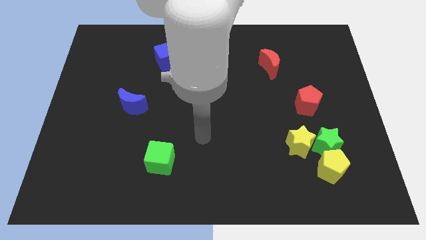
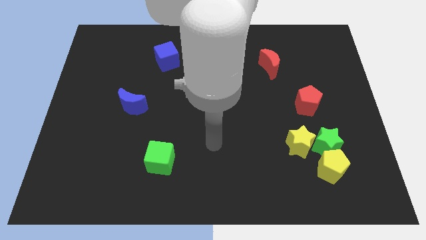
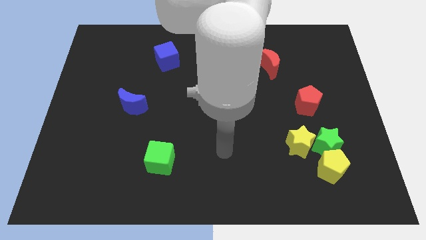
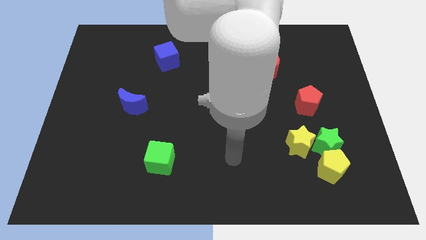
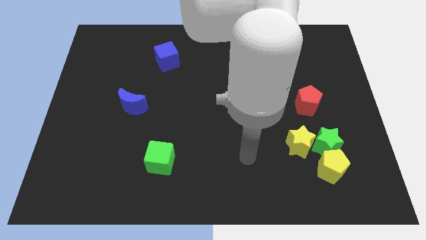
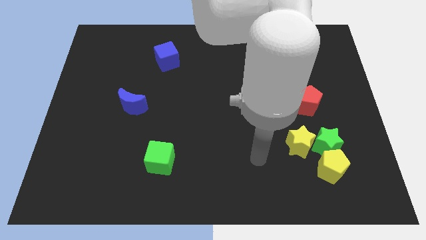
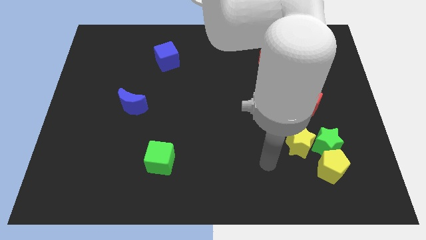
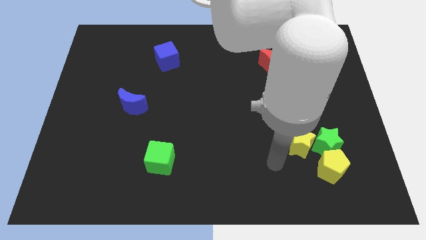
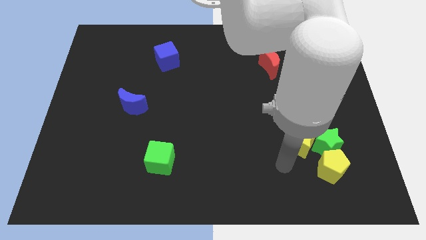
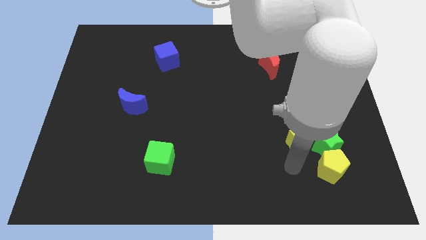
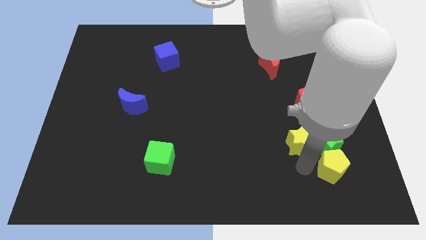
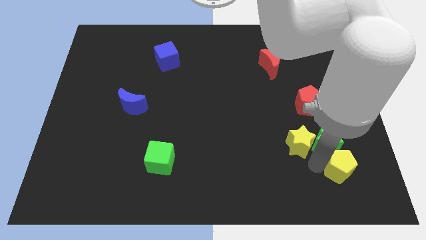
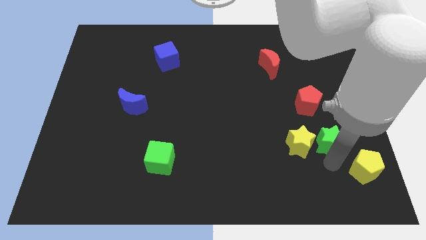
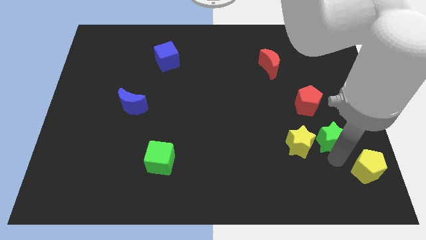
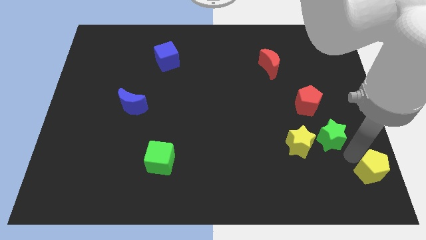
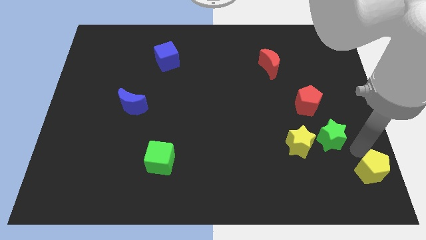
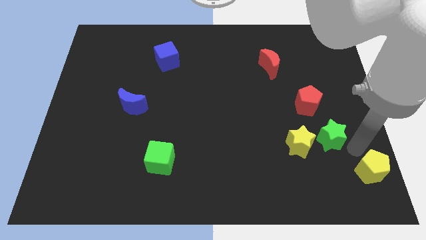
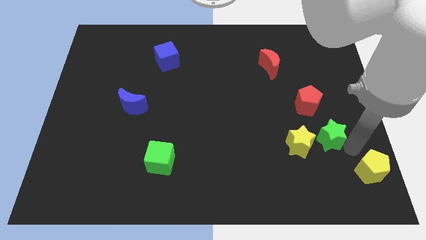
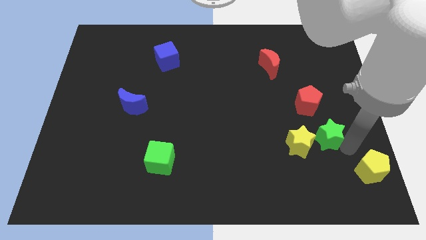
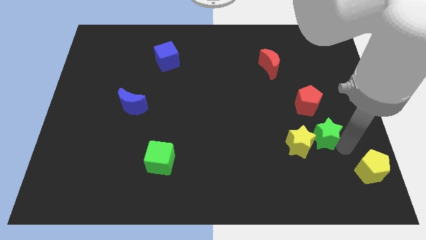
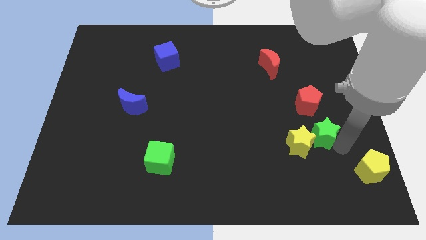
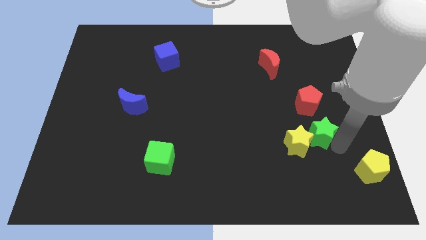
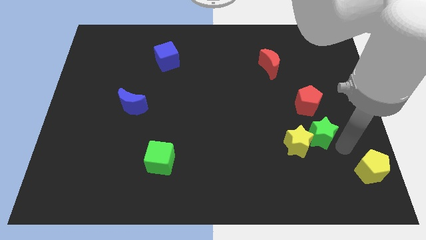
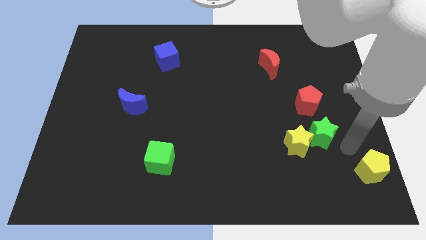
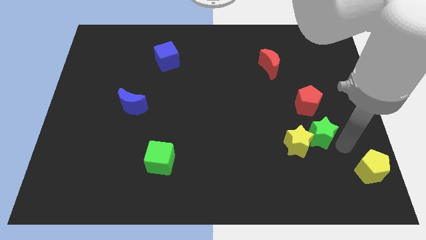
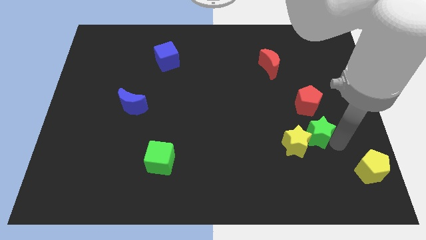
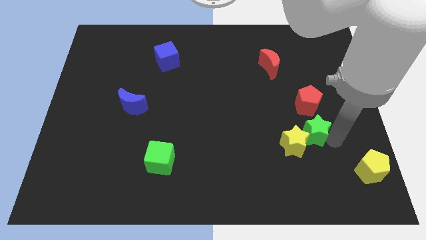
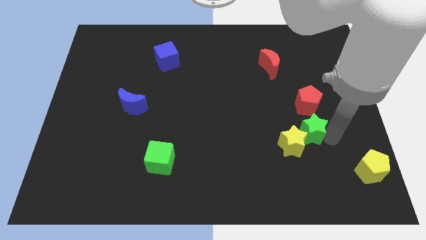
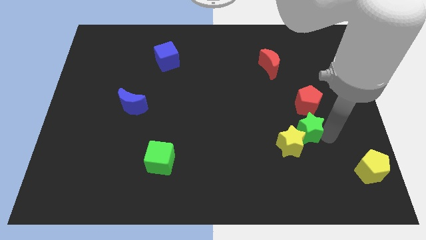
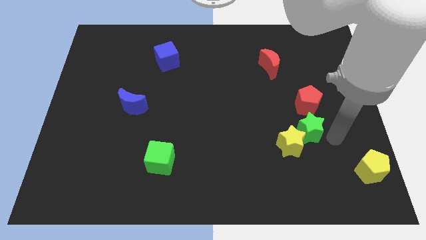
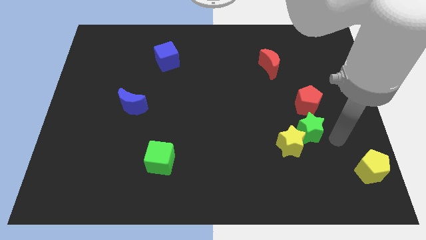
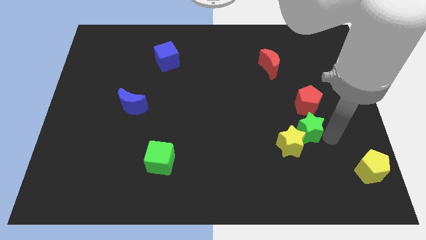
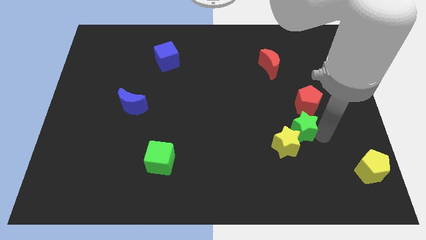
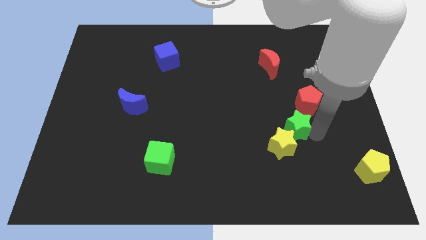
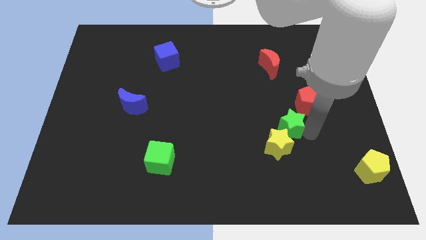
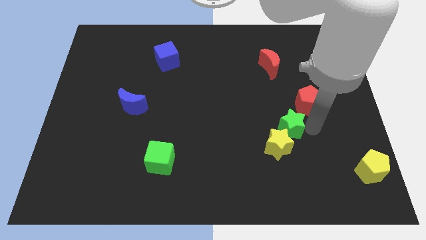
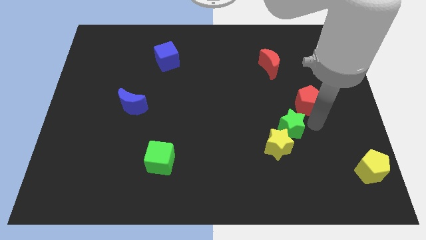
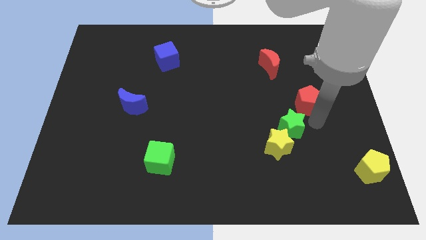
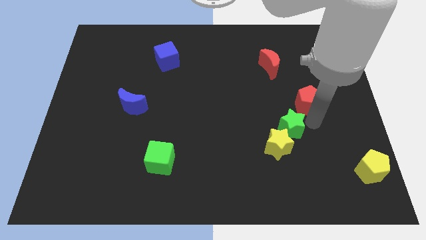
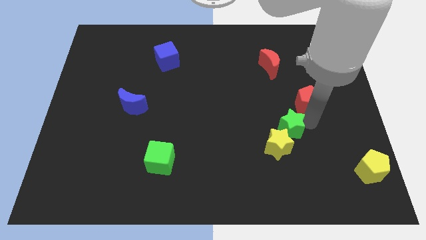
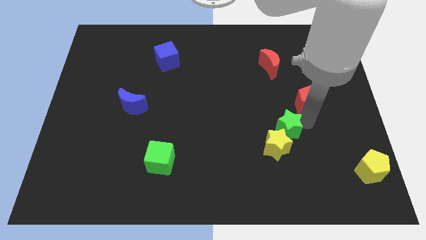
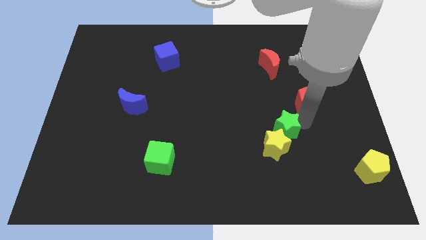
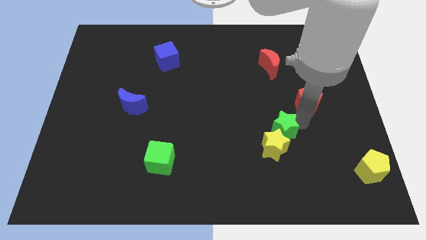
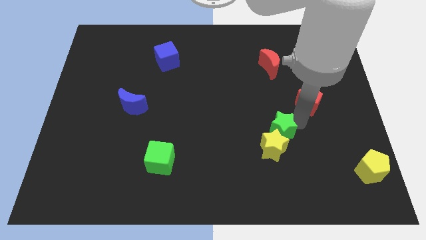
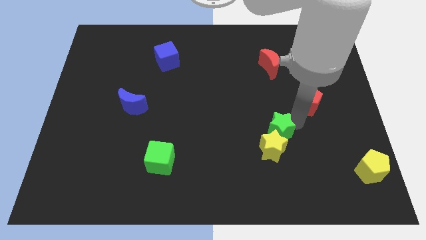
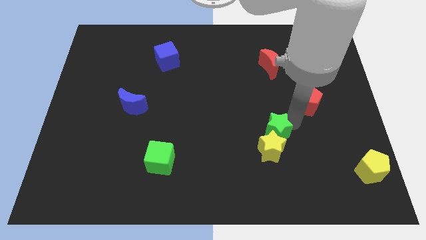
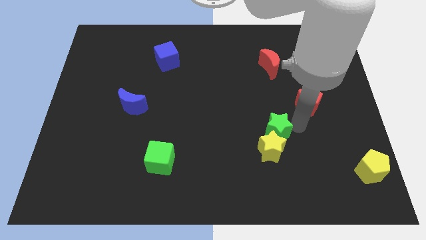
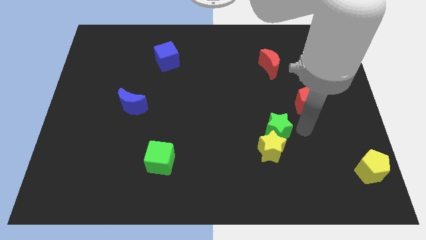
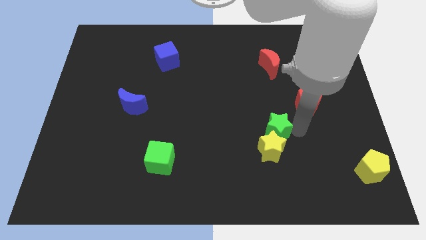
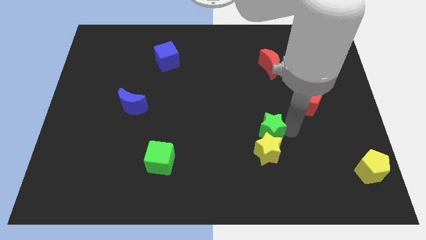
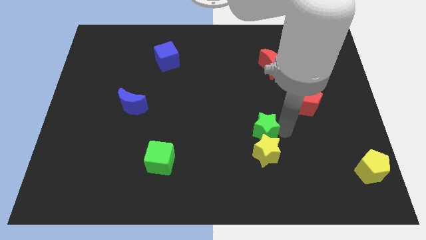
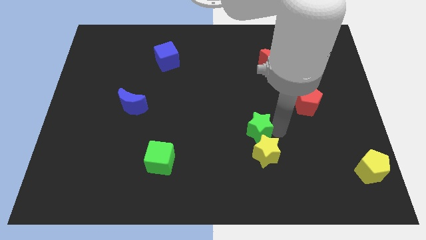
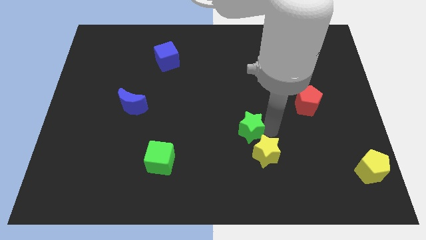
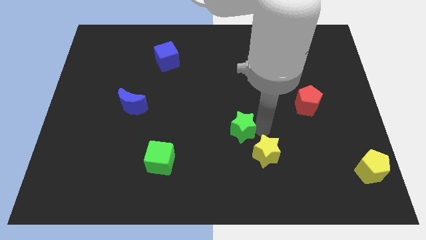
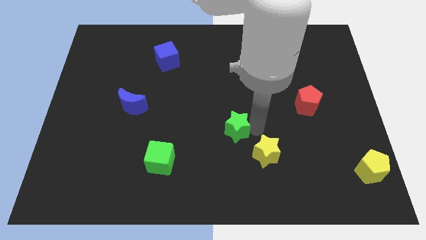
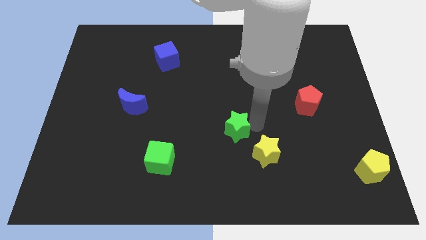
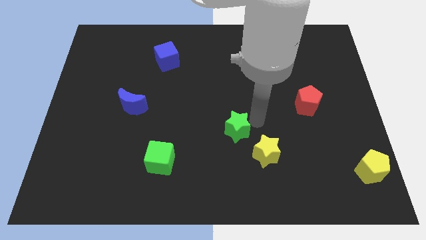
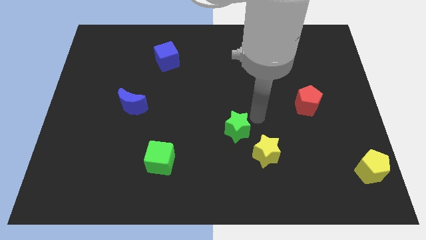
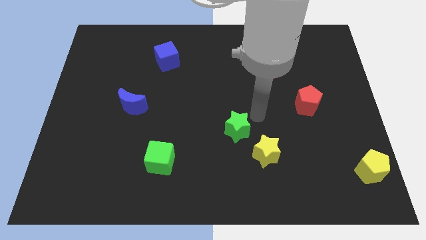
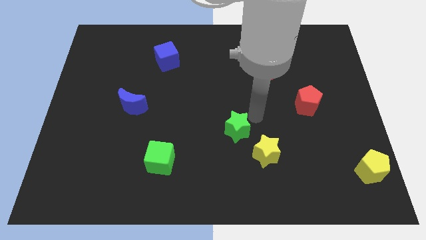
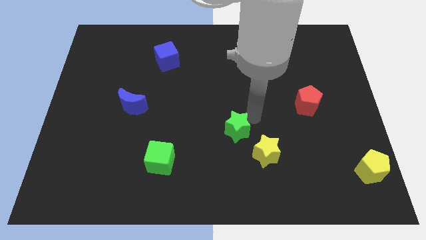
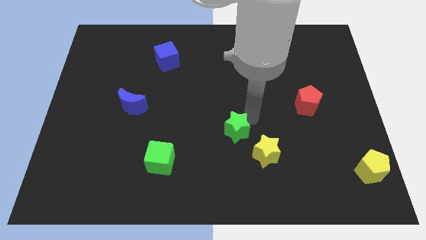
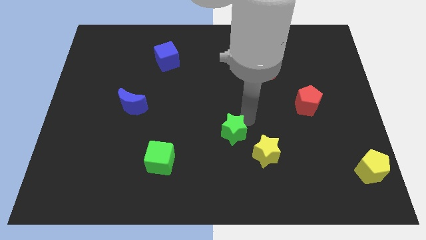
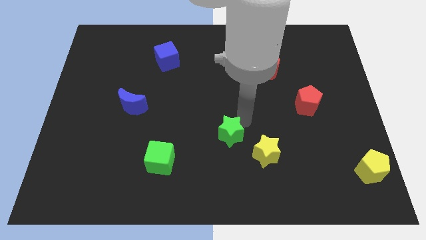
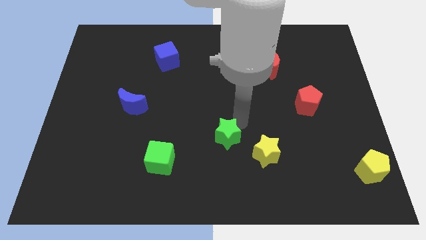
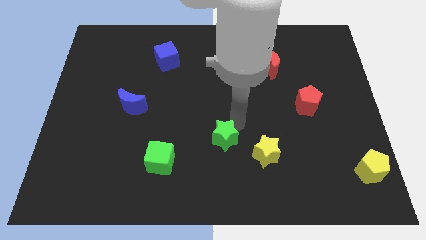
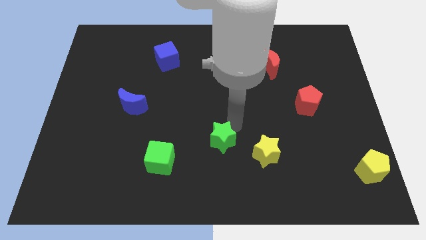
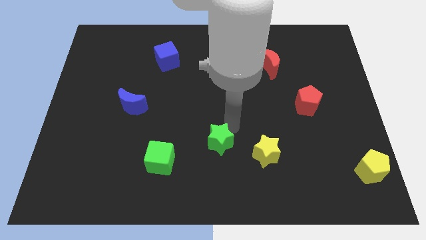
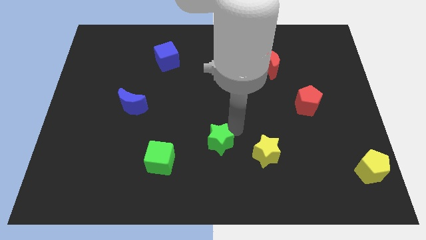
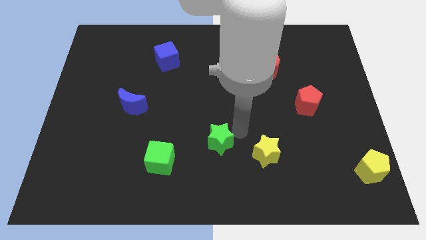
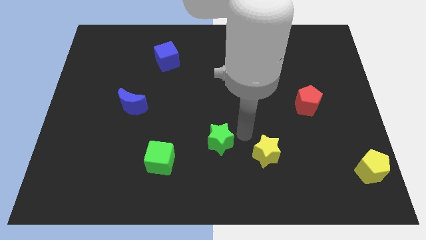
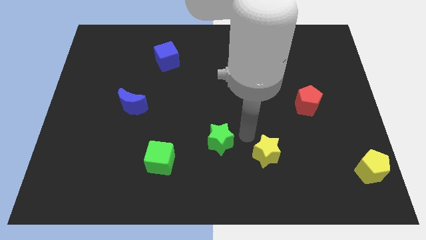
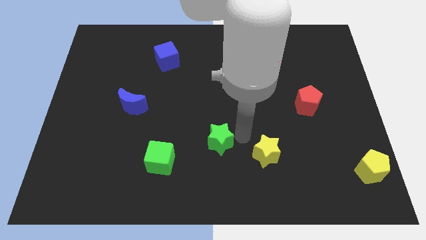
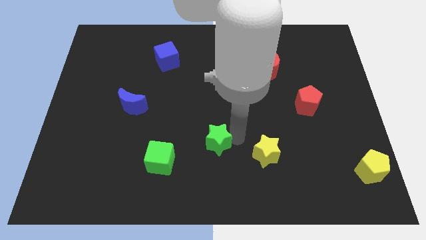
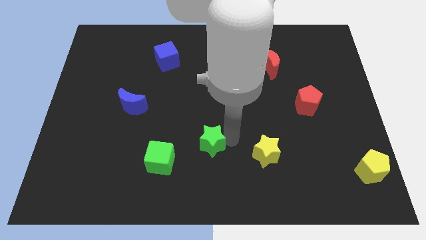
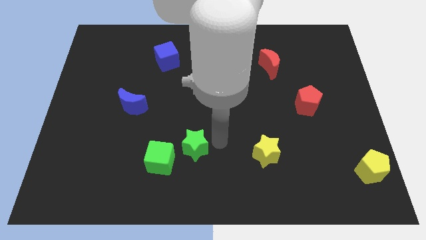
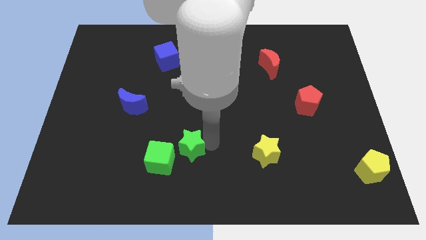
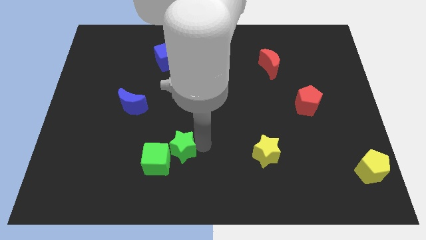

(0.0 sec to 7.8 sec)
push the green star to the green cube
